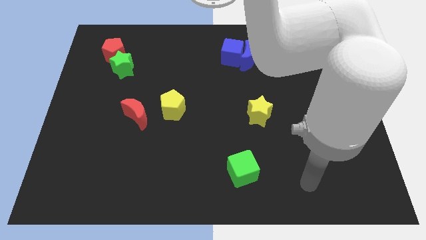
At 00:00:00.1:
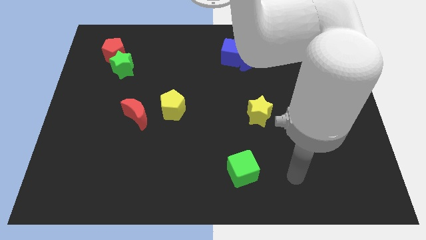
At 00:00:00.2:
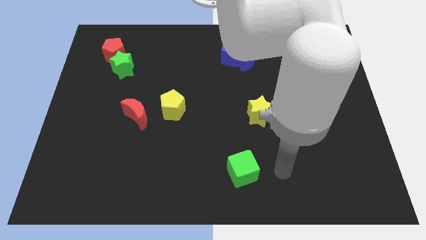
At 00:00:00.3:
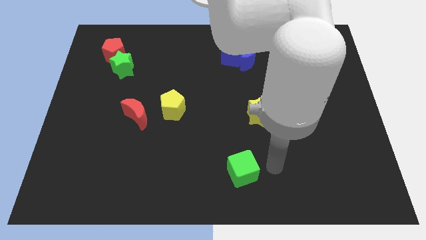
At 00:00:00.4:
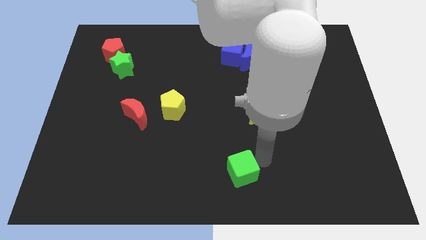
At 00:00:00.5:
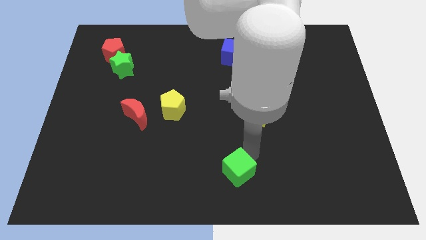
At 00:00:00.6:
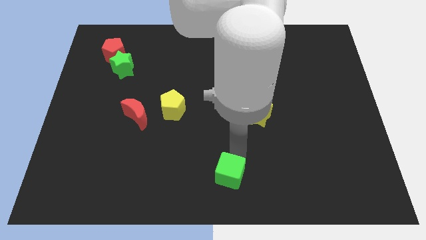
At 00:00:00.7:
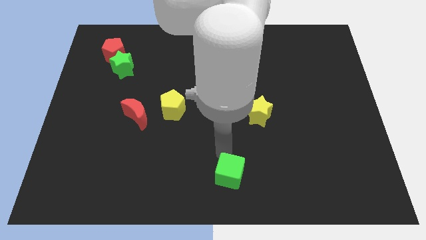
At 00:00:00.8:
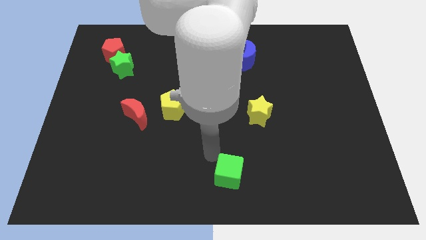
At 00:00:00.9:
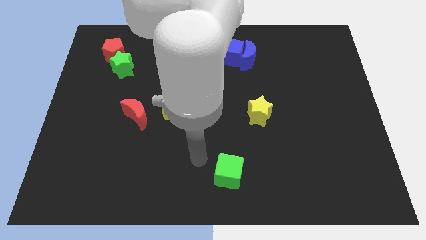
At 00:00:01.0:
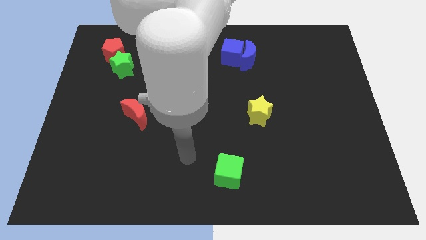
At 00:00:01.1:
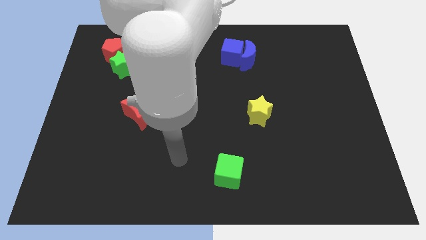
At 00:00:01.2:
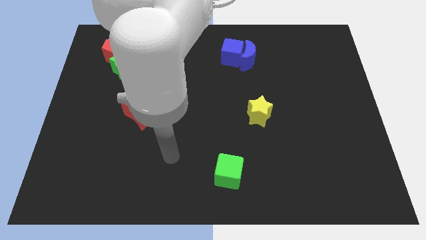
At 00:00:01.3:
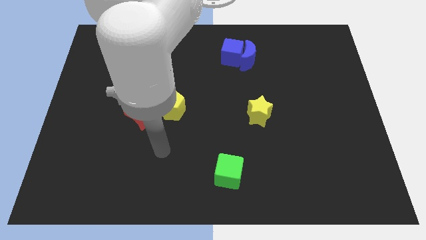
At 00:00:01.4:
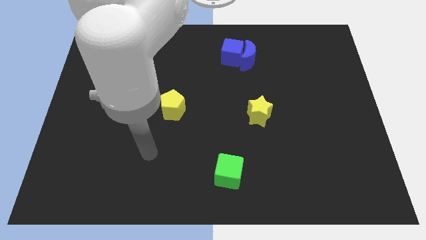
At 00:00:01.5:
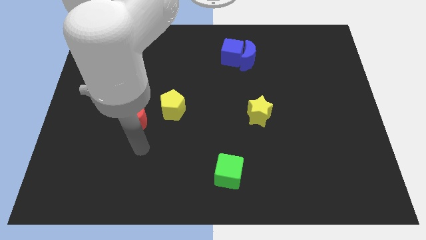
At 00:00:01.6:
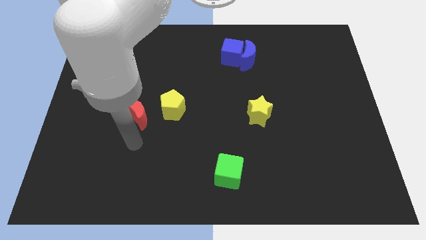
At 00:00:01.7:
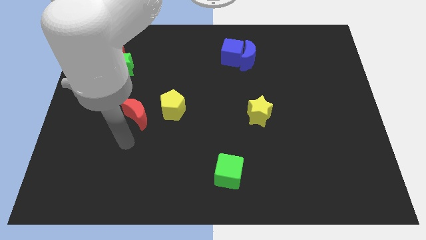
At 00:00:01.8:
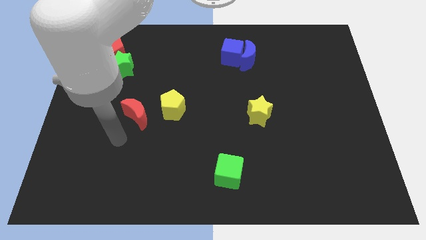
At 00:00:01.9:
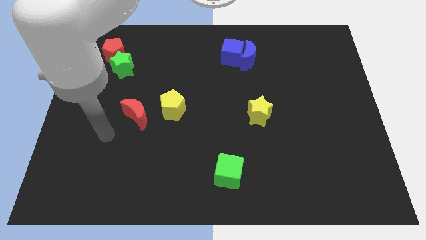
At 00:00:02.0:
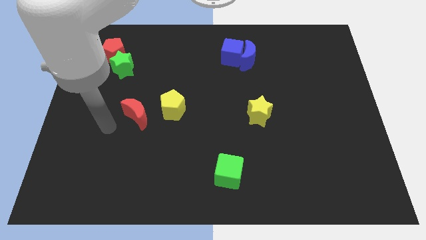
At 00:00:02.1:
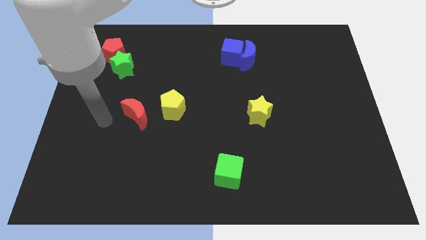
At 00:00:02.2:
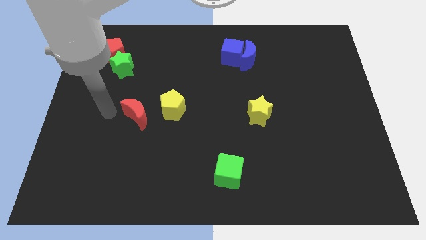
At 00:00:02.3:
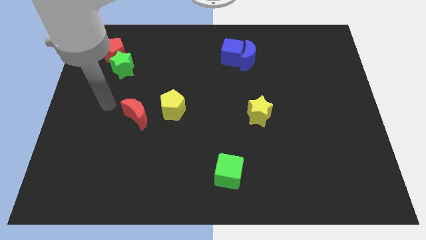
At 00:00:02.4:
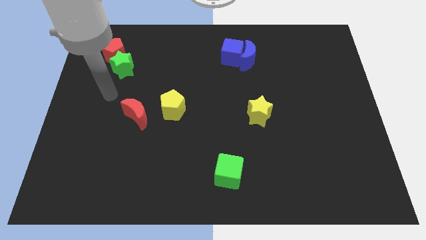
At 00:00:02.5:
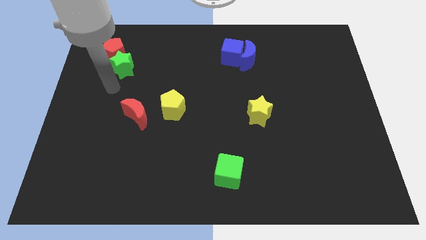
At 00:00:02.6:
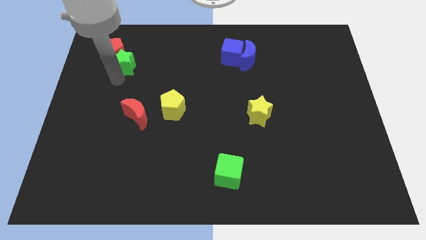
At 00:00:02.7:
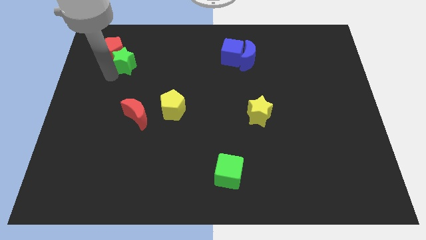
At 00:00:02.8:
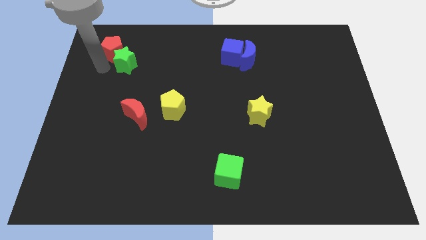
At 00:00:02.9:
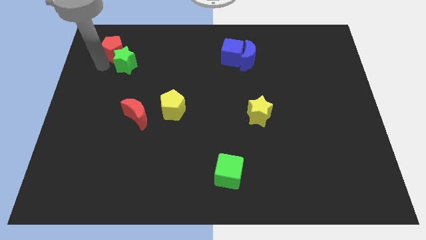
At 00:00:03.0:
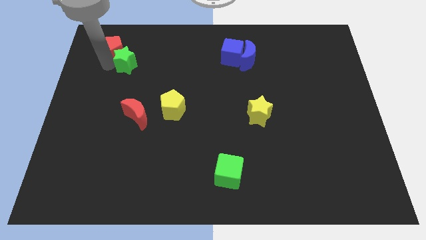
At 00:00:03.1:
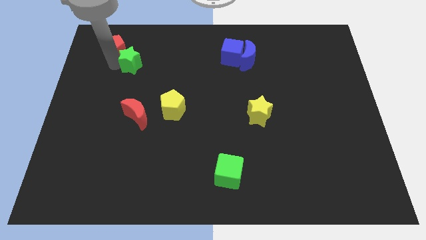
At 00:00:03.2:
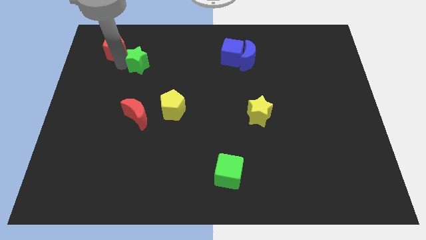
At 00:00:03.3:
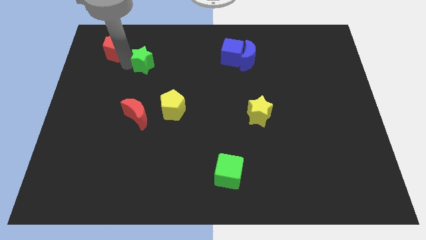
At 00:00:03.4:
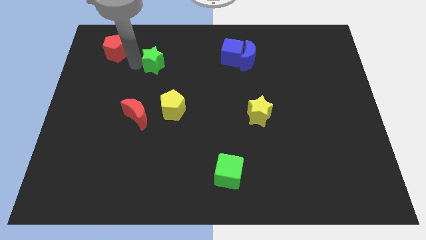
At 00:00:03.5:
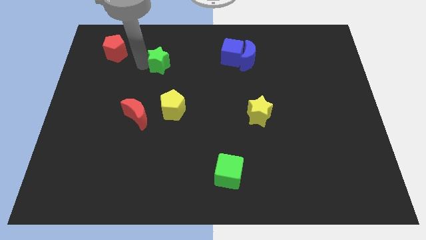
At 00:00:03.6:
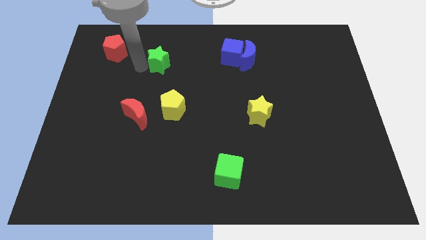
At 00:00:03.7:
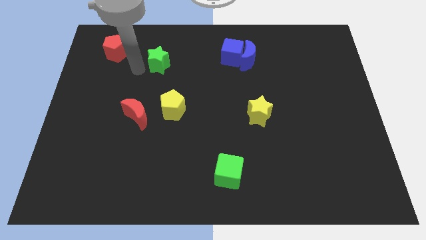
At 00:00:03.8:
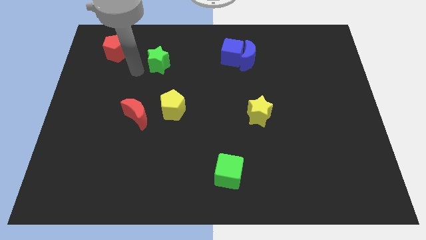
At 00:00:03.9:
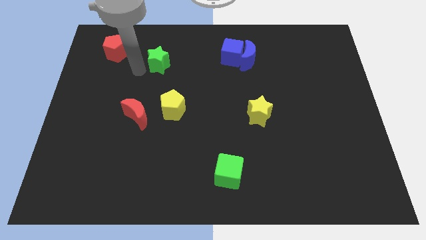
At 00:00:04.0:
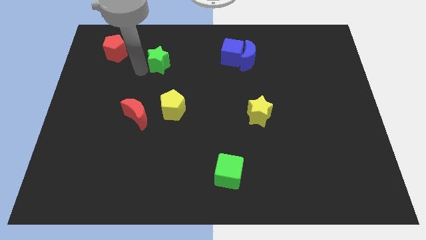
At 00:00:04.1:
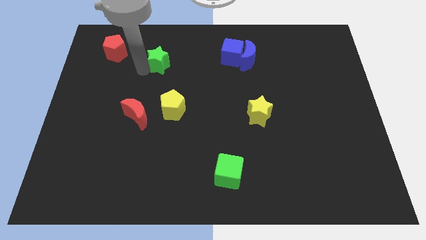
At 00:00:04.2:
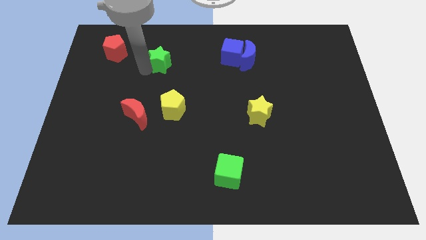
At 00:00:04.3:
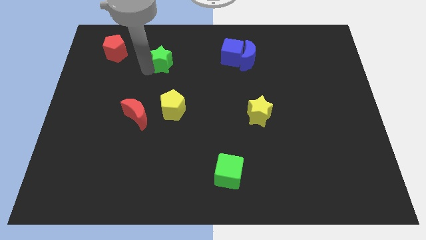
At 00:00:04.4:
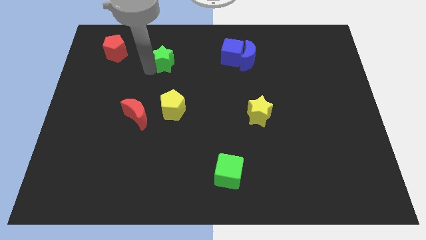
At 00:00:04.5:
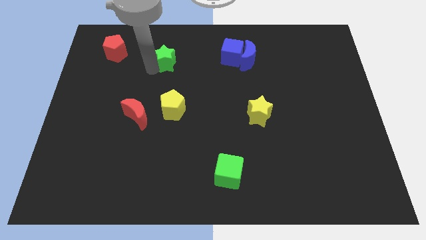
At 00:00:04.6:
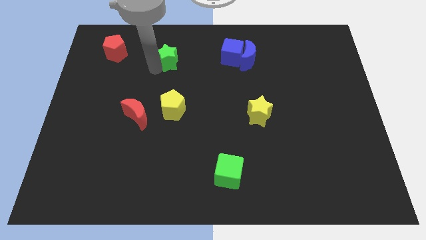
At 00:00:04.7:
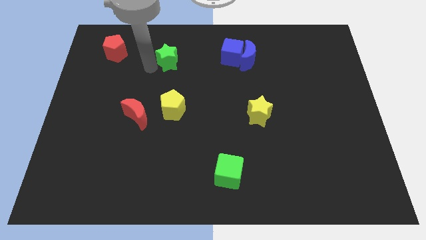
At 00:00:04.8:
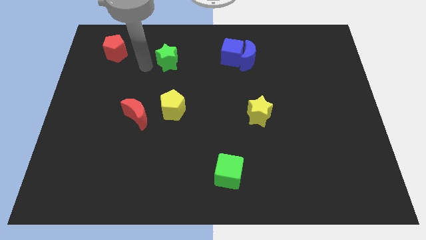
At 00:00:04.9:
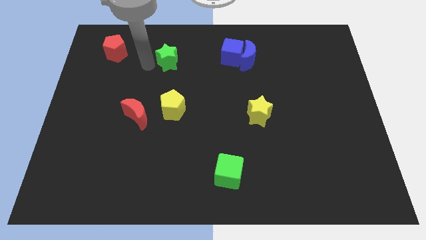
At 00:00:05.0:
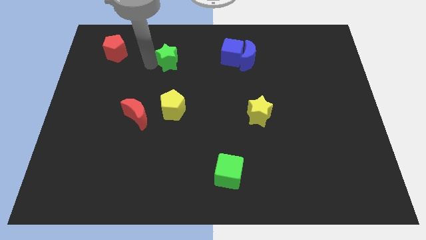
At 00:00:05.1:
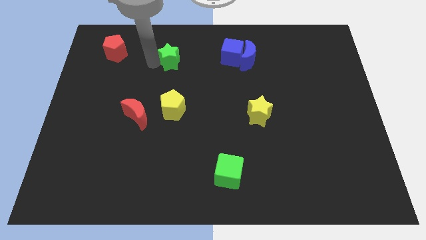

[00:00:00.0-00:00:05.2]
put the green star to the left side of the blue cube

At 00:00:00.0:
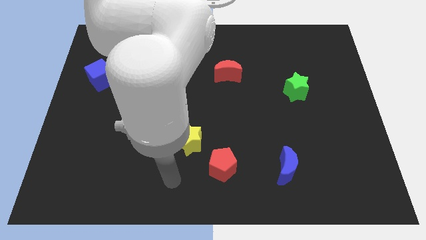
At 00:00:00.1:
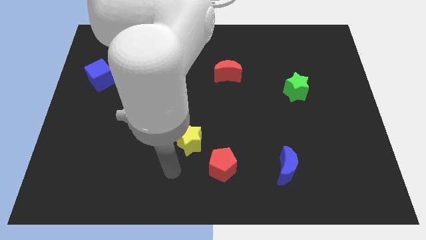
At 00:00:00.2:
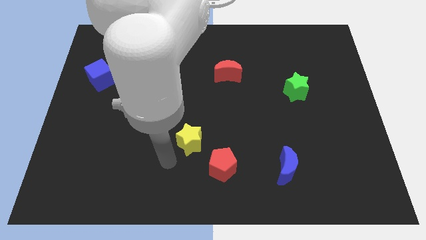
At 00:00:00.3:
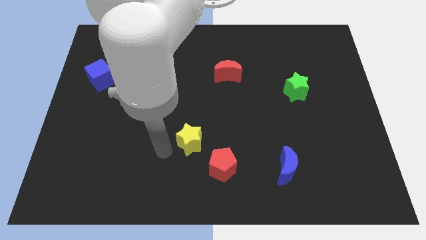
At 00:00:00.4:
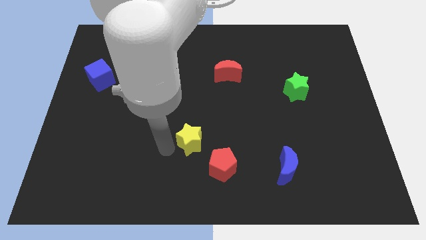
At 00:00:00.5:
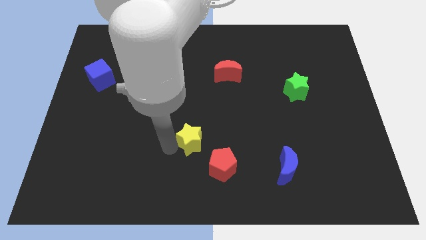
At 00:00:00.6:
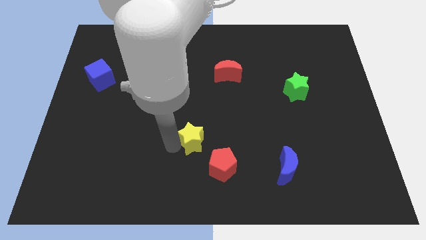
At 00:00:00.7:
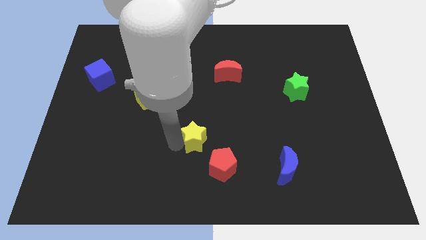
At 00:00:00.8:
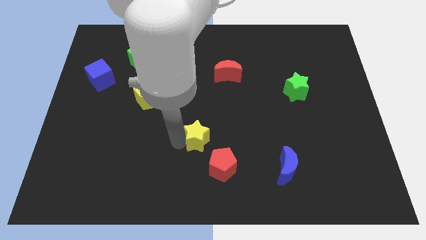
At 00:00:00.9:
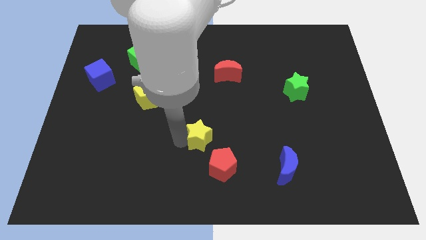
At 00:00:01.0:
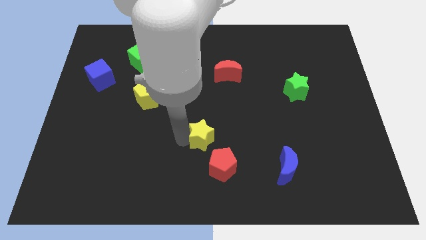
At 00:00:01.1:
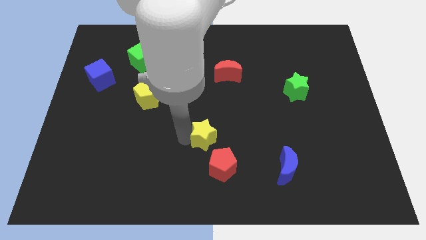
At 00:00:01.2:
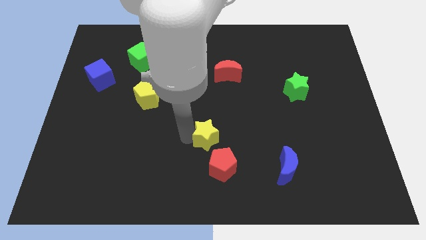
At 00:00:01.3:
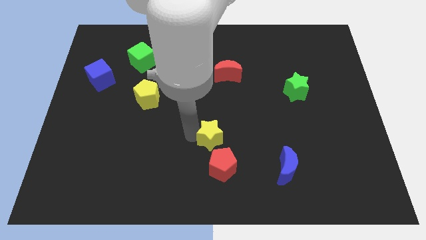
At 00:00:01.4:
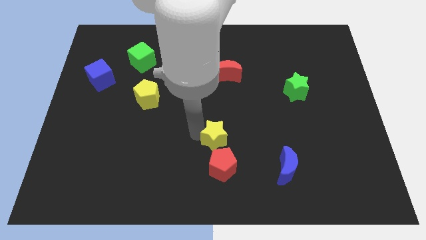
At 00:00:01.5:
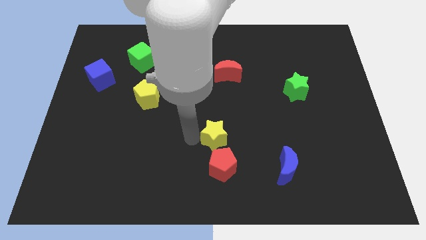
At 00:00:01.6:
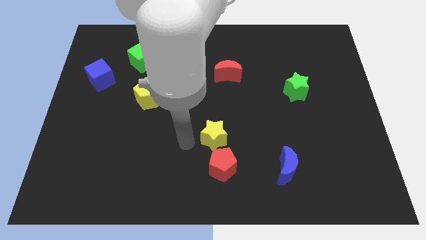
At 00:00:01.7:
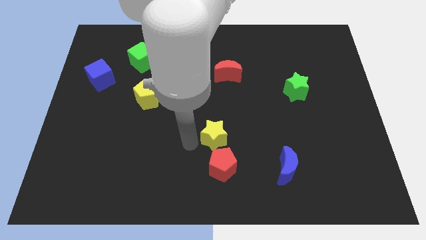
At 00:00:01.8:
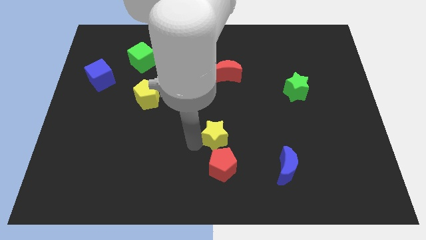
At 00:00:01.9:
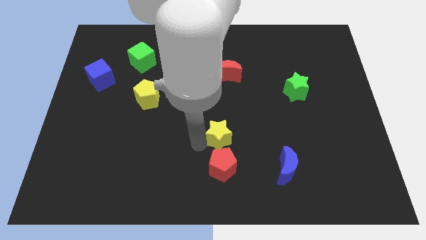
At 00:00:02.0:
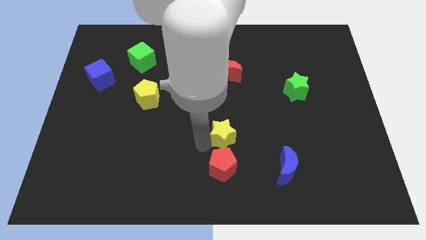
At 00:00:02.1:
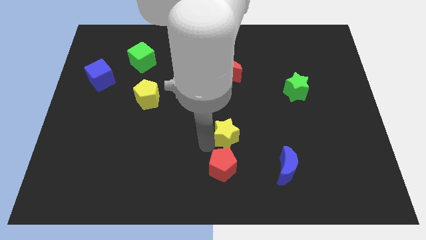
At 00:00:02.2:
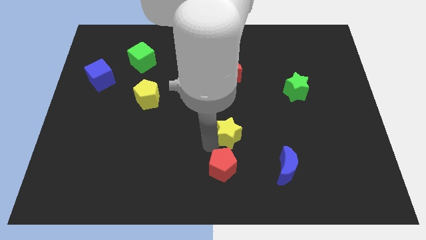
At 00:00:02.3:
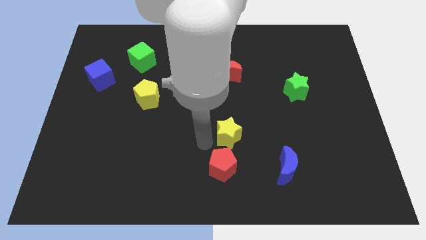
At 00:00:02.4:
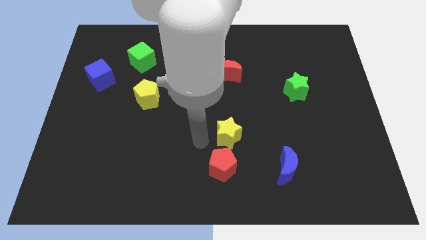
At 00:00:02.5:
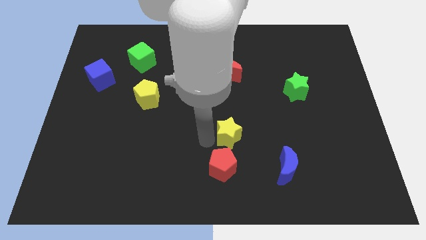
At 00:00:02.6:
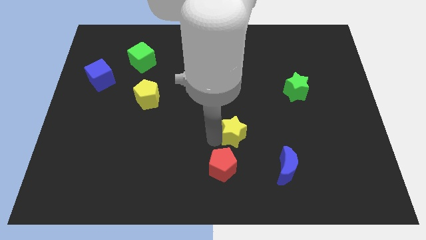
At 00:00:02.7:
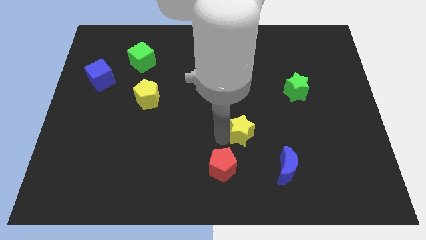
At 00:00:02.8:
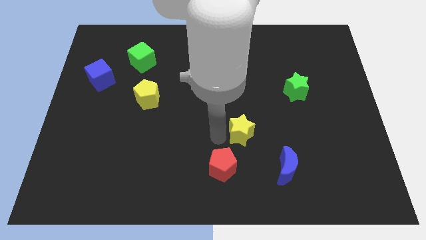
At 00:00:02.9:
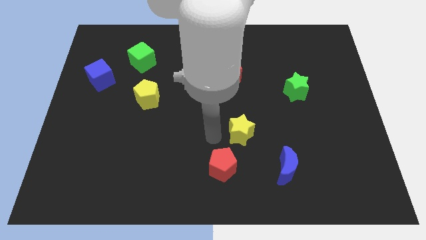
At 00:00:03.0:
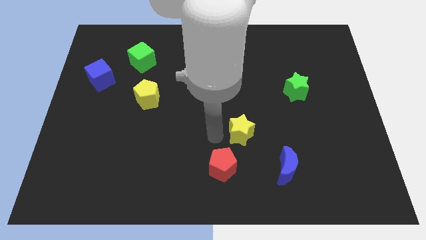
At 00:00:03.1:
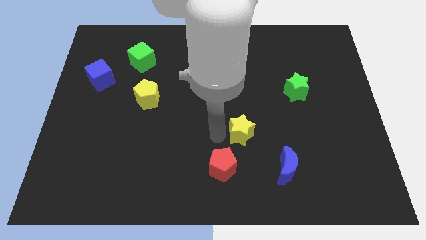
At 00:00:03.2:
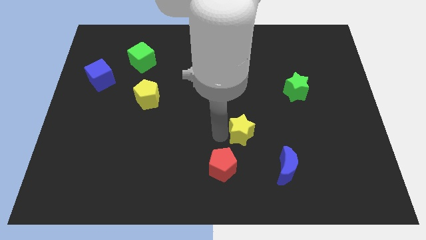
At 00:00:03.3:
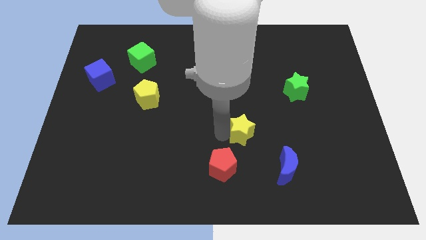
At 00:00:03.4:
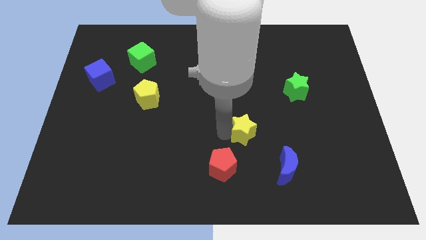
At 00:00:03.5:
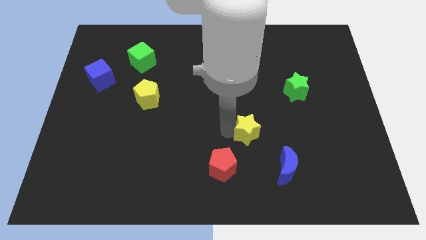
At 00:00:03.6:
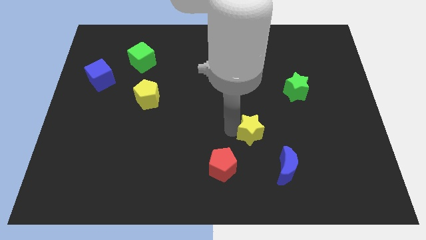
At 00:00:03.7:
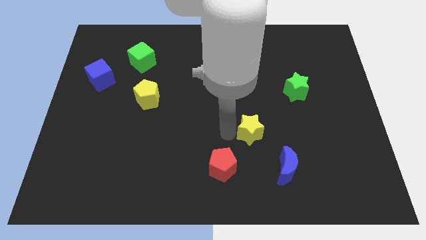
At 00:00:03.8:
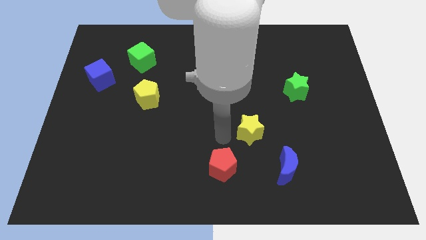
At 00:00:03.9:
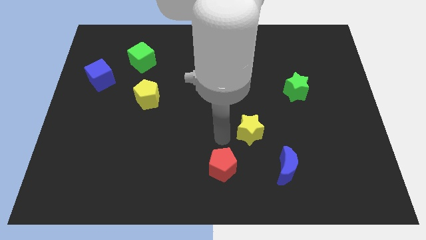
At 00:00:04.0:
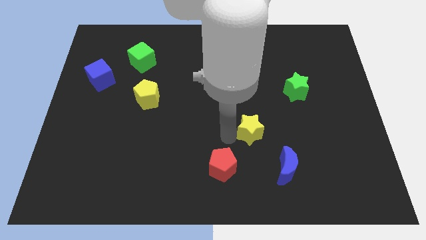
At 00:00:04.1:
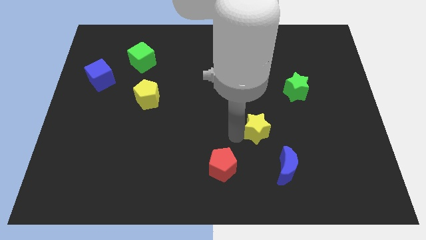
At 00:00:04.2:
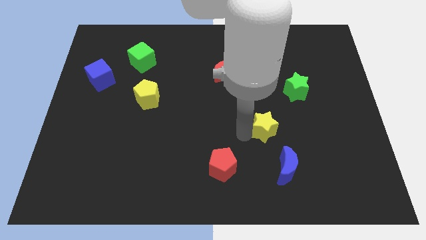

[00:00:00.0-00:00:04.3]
move the yellow star to the top side of the blue moon
